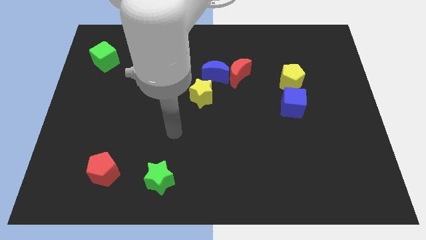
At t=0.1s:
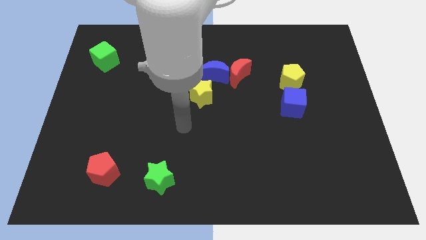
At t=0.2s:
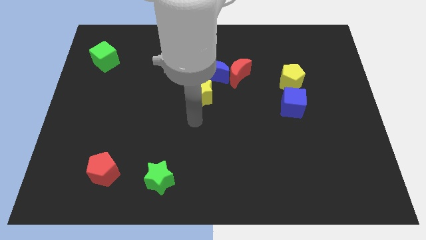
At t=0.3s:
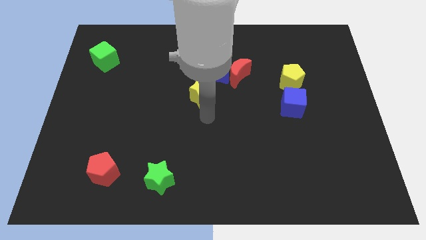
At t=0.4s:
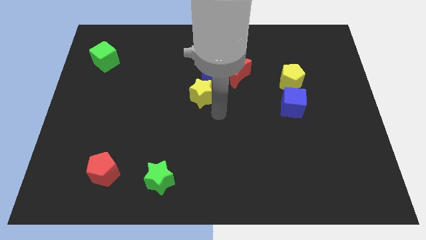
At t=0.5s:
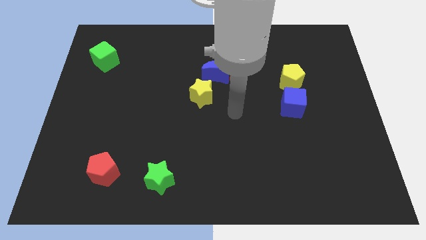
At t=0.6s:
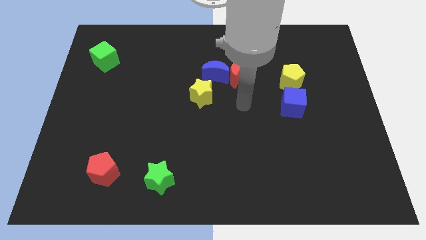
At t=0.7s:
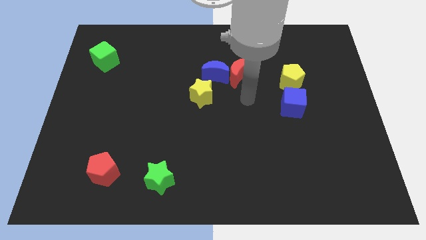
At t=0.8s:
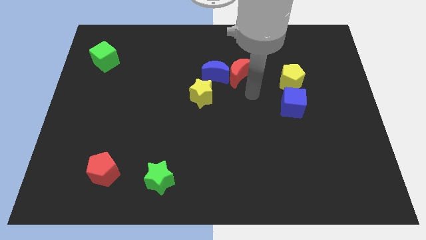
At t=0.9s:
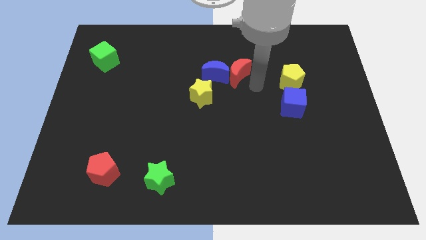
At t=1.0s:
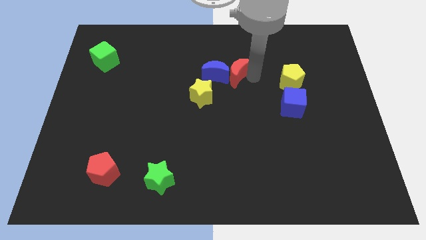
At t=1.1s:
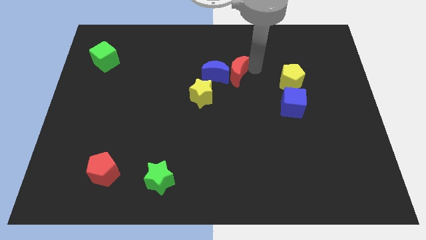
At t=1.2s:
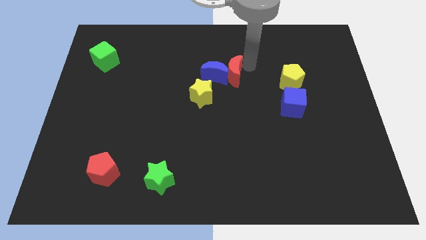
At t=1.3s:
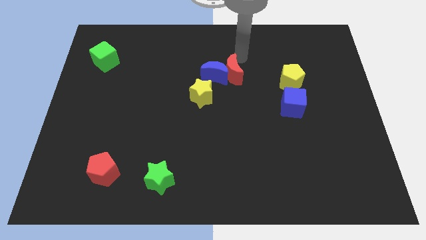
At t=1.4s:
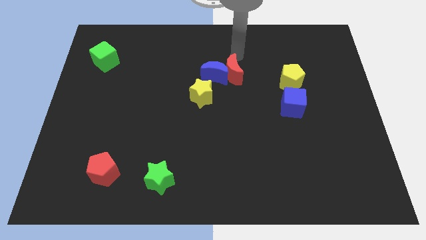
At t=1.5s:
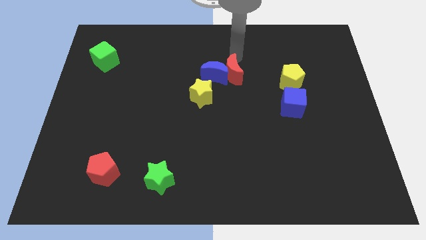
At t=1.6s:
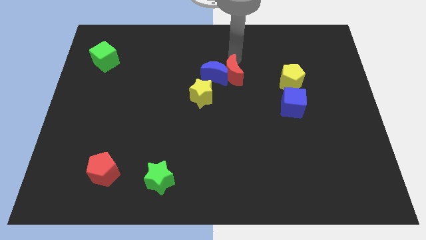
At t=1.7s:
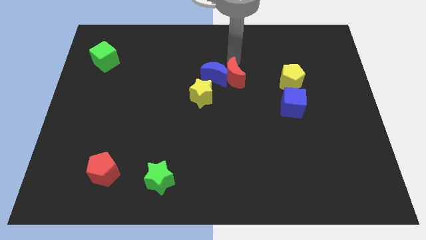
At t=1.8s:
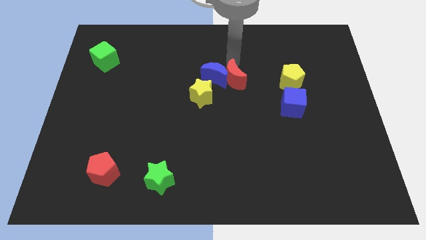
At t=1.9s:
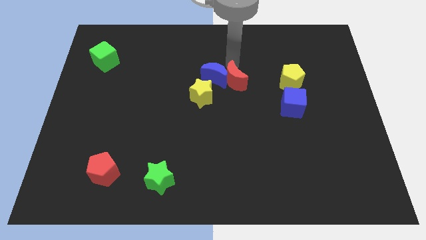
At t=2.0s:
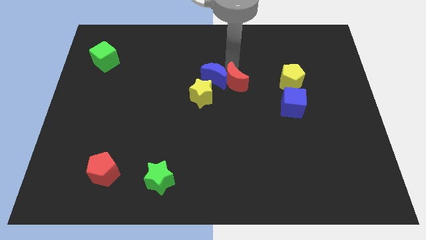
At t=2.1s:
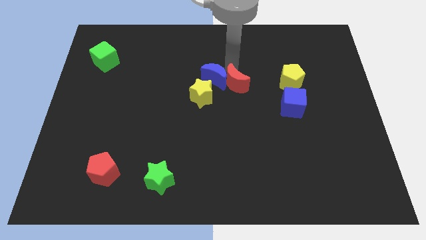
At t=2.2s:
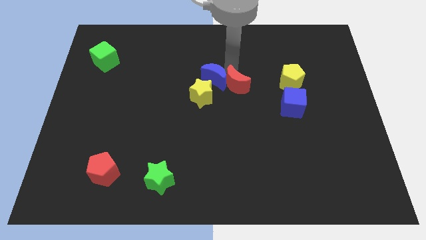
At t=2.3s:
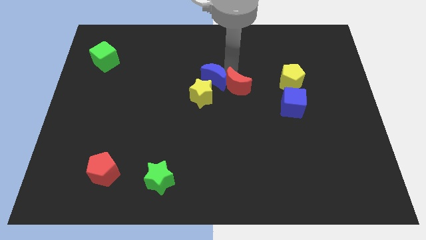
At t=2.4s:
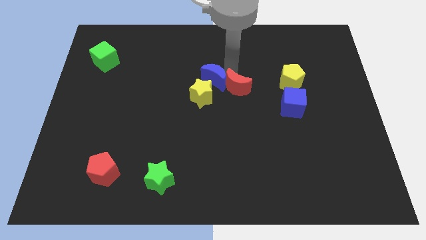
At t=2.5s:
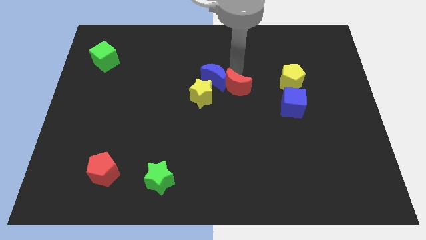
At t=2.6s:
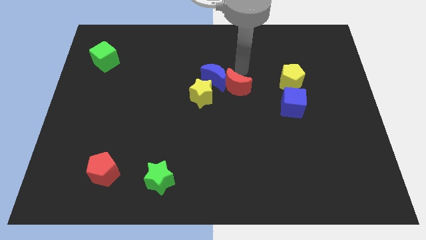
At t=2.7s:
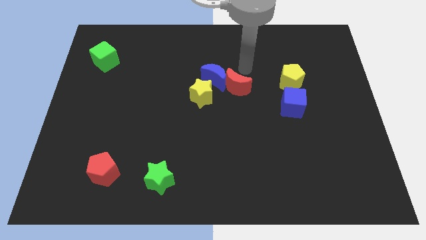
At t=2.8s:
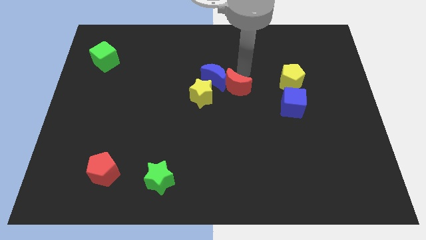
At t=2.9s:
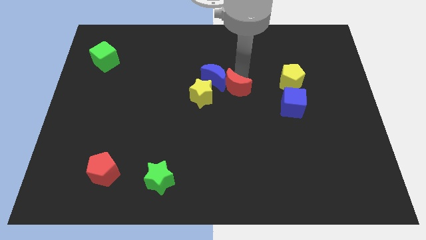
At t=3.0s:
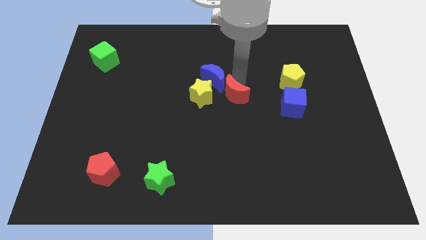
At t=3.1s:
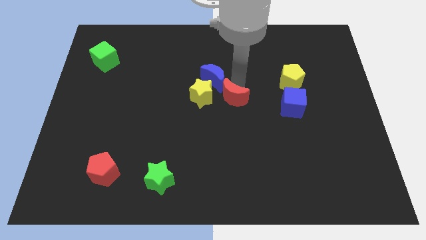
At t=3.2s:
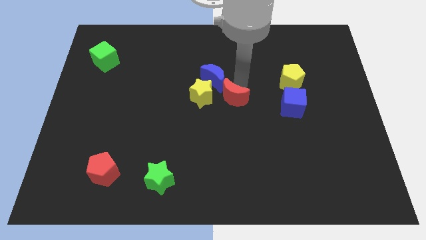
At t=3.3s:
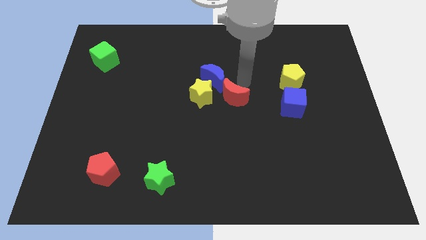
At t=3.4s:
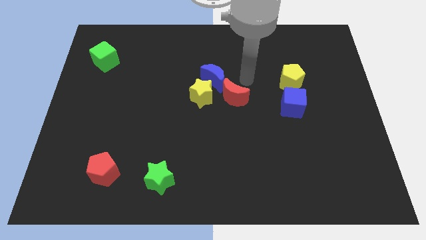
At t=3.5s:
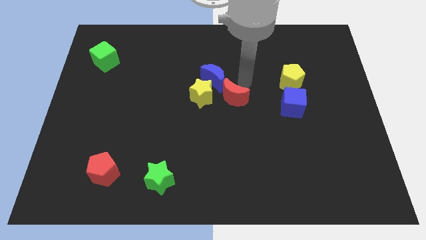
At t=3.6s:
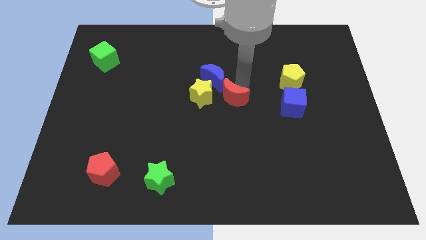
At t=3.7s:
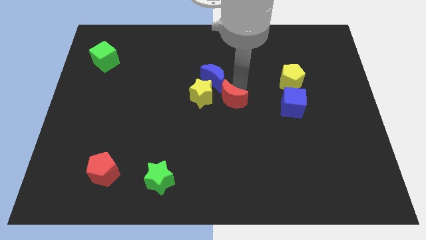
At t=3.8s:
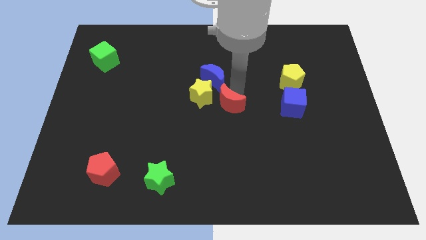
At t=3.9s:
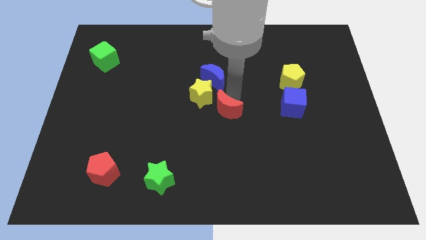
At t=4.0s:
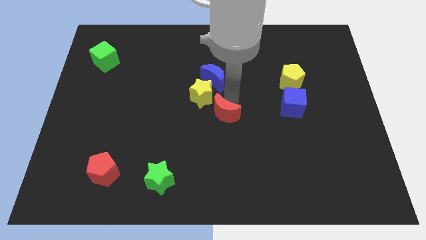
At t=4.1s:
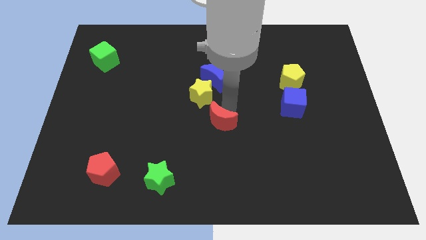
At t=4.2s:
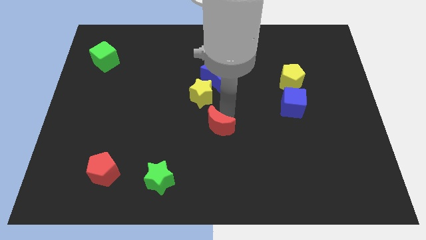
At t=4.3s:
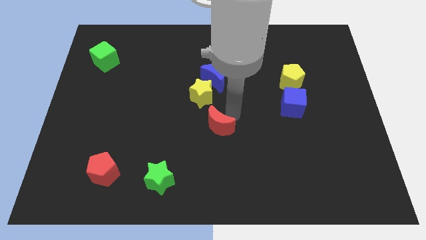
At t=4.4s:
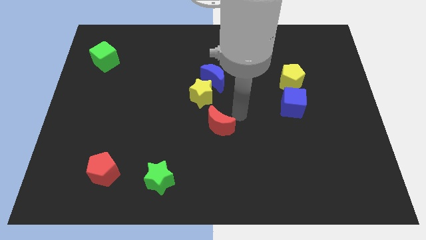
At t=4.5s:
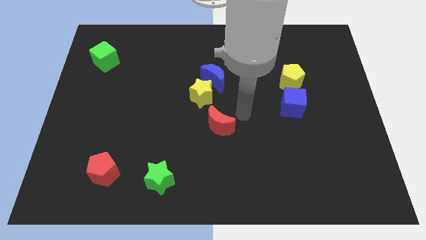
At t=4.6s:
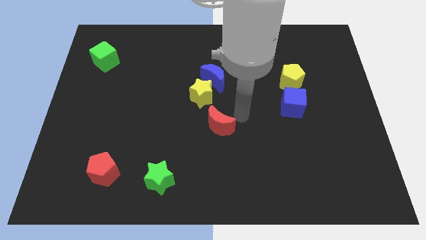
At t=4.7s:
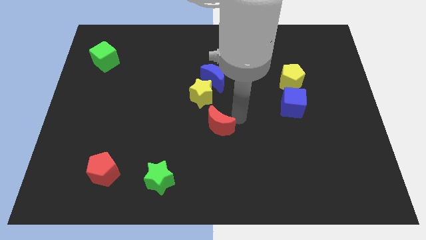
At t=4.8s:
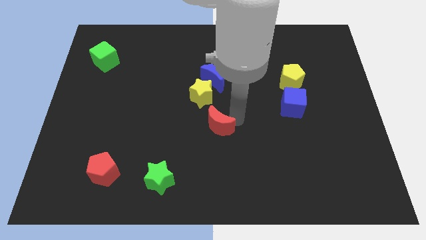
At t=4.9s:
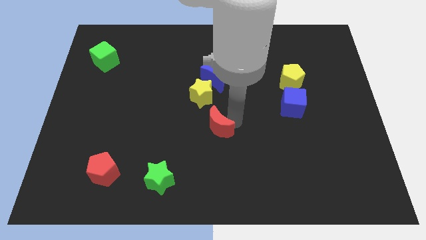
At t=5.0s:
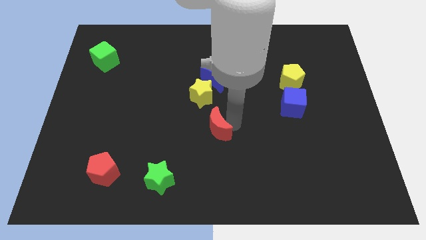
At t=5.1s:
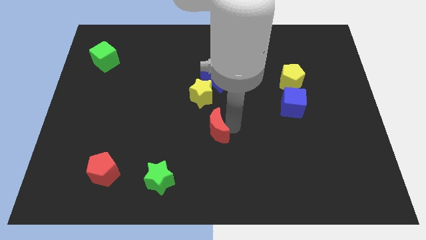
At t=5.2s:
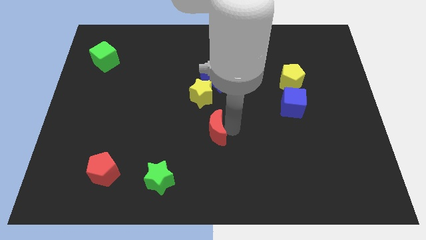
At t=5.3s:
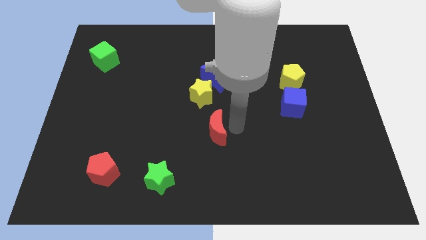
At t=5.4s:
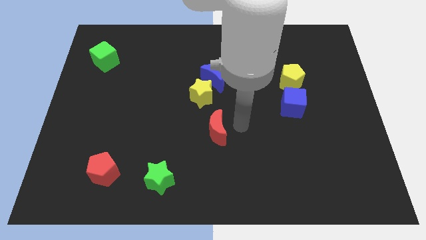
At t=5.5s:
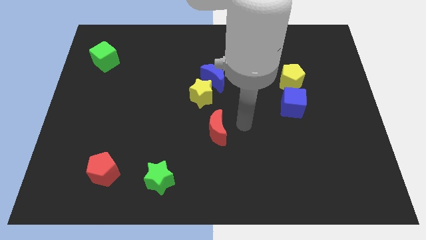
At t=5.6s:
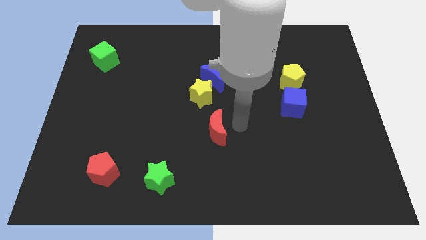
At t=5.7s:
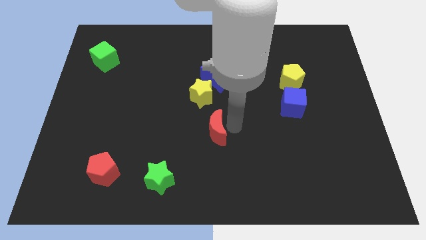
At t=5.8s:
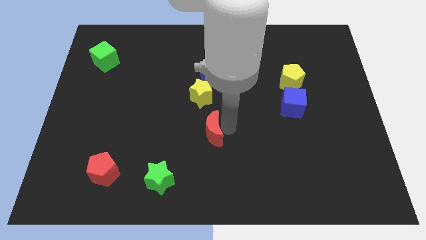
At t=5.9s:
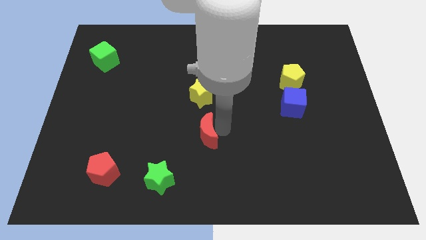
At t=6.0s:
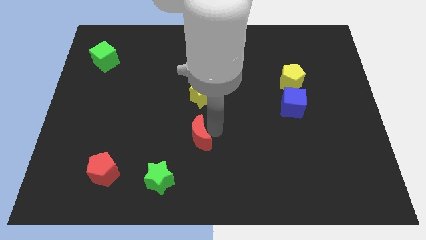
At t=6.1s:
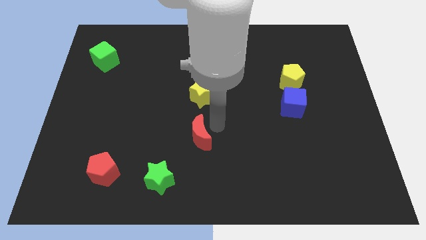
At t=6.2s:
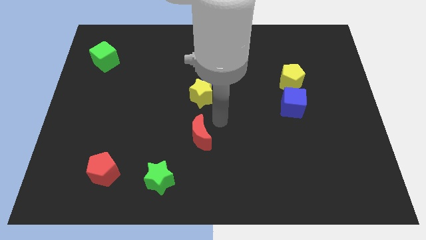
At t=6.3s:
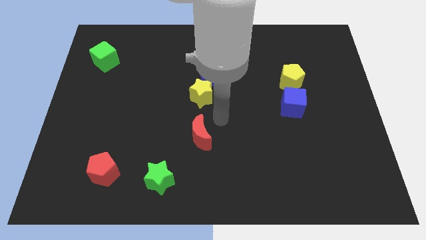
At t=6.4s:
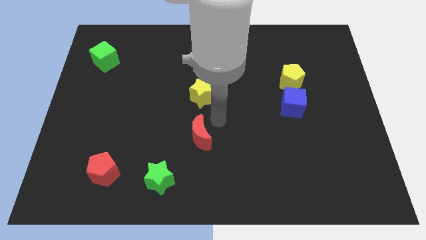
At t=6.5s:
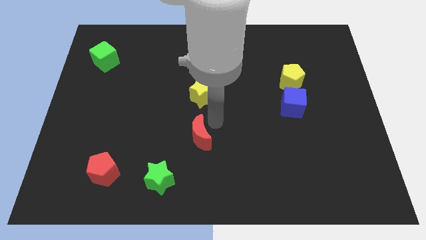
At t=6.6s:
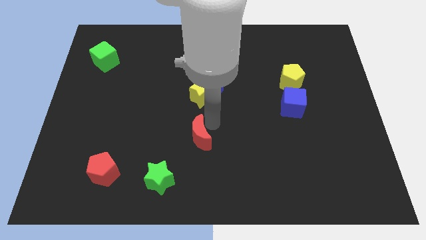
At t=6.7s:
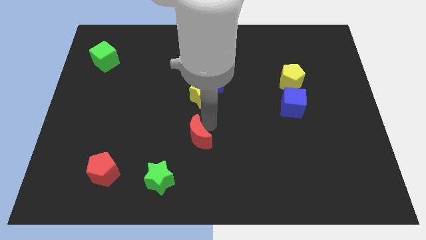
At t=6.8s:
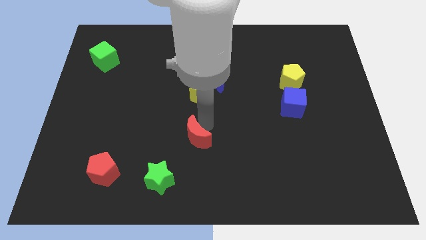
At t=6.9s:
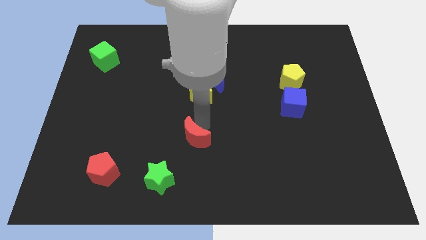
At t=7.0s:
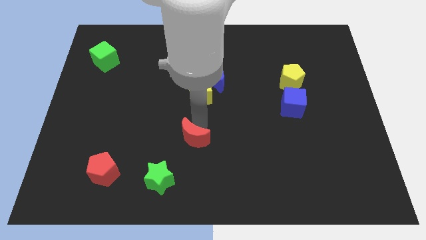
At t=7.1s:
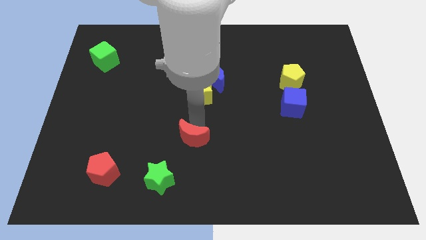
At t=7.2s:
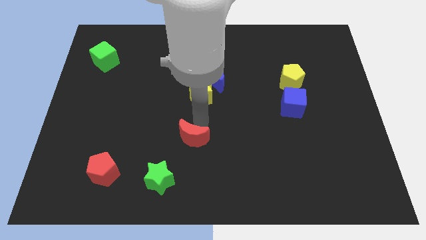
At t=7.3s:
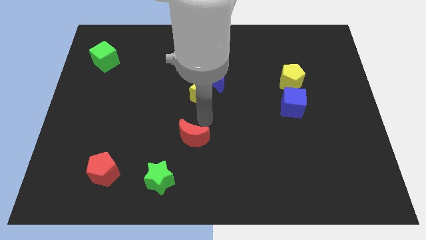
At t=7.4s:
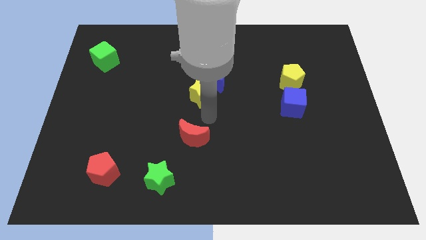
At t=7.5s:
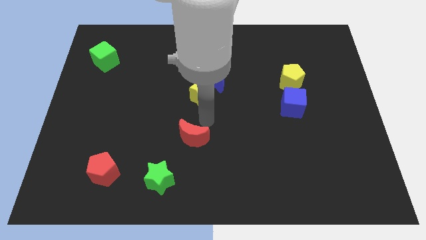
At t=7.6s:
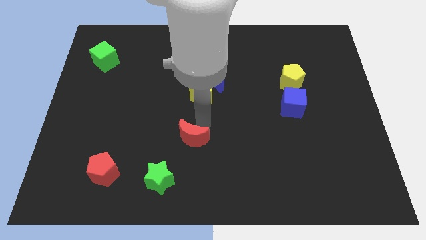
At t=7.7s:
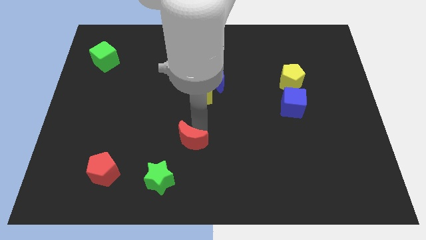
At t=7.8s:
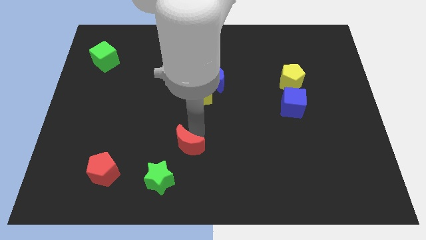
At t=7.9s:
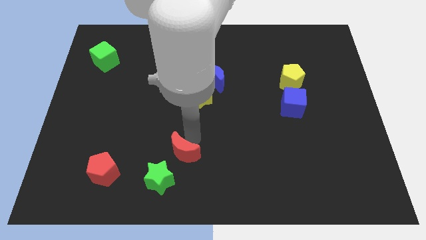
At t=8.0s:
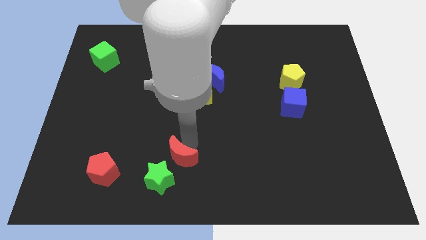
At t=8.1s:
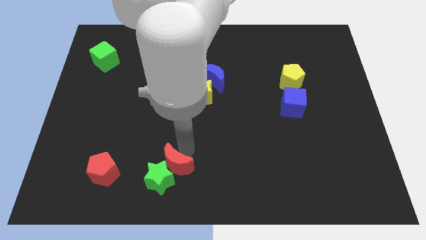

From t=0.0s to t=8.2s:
slide the red moon to the green star
